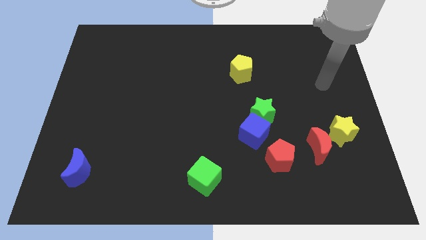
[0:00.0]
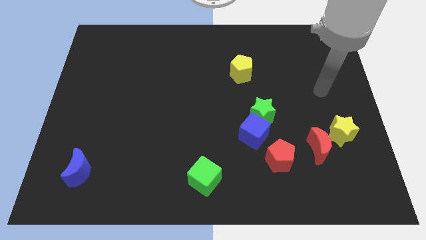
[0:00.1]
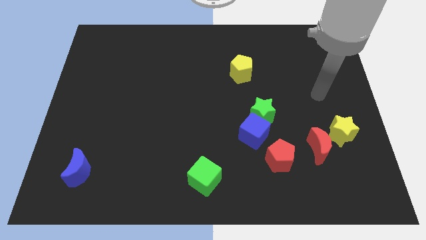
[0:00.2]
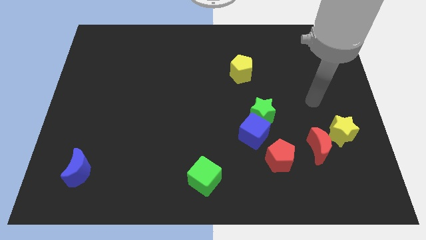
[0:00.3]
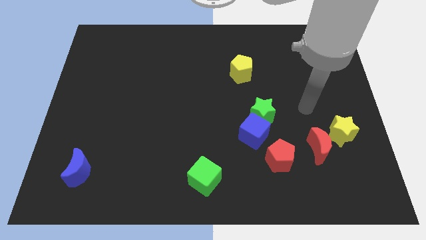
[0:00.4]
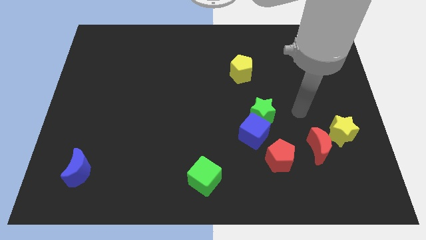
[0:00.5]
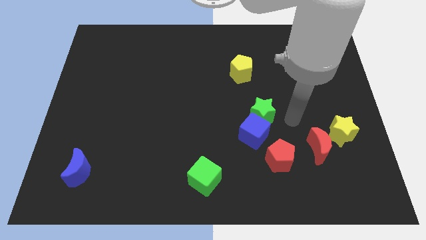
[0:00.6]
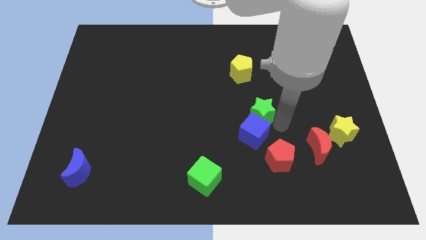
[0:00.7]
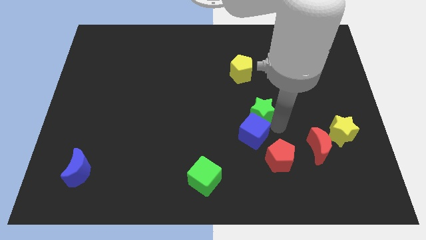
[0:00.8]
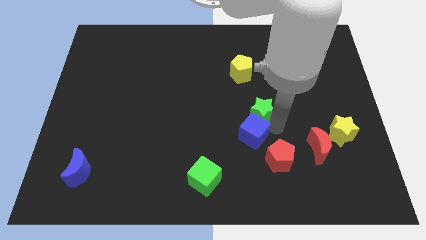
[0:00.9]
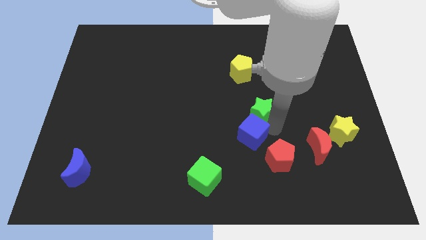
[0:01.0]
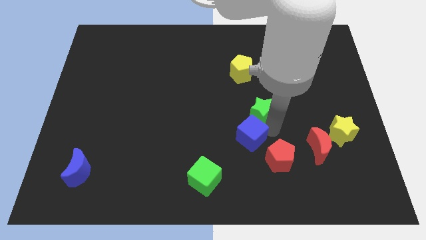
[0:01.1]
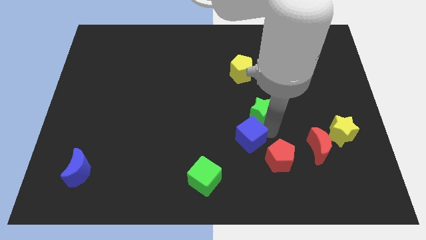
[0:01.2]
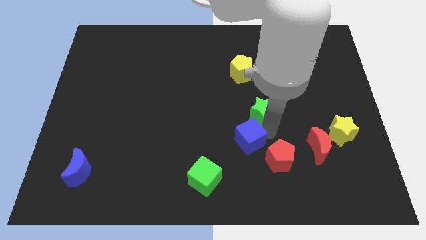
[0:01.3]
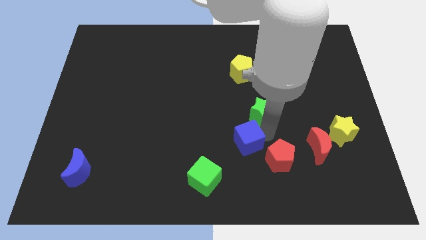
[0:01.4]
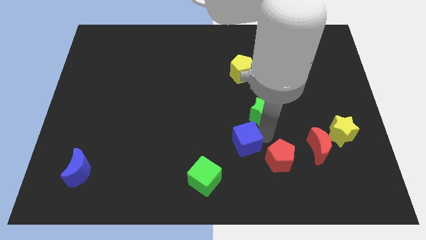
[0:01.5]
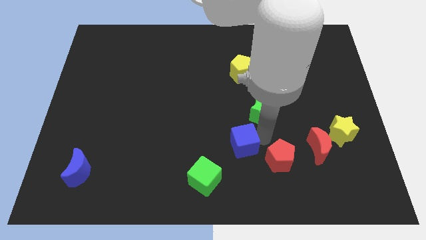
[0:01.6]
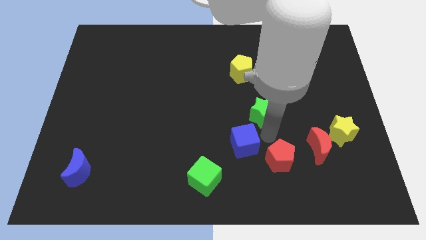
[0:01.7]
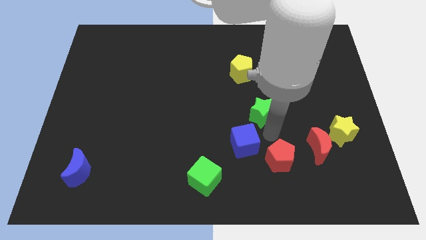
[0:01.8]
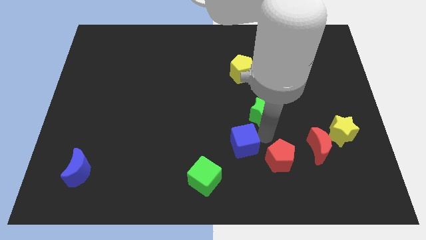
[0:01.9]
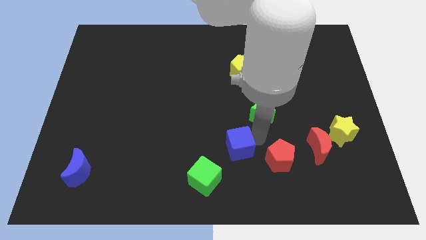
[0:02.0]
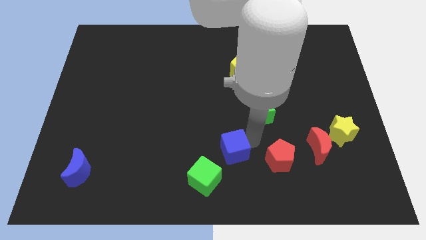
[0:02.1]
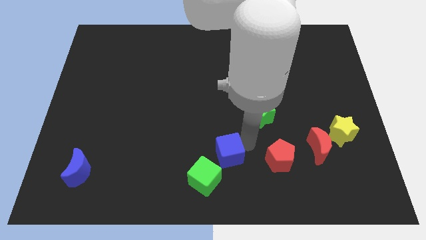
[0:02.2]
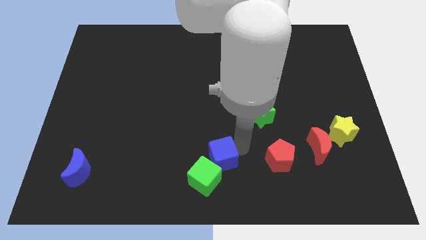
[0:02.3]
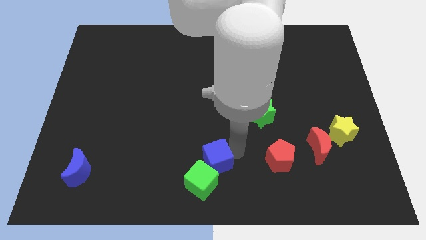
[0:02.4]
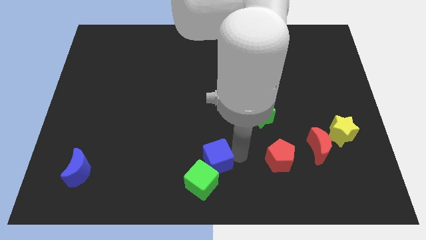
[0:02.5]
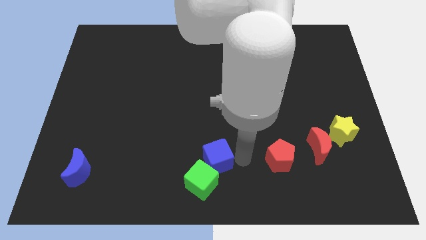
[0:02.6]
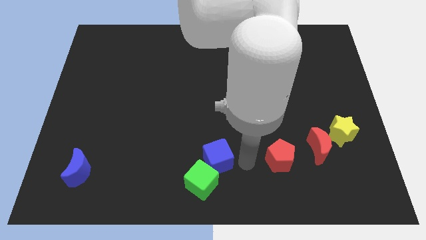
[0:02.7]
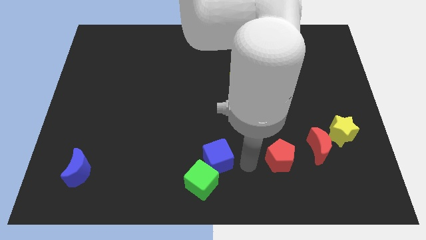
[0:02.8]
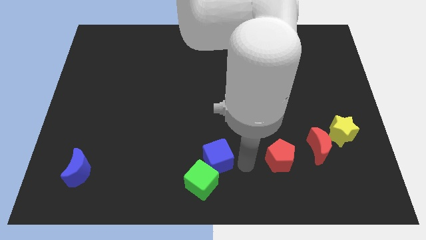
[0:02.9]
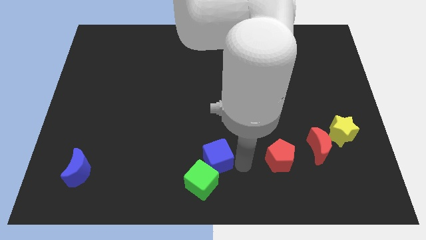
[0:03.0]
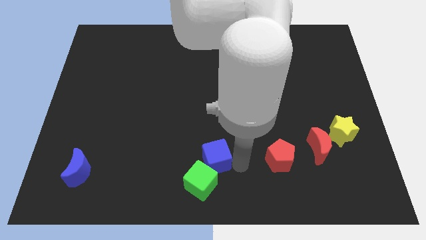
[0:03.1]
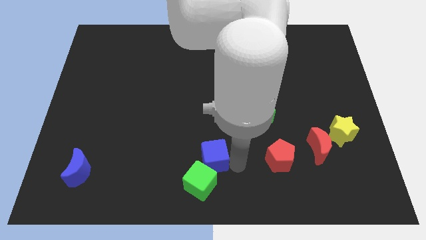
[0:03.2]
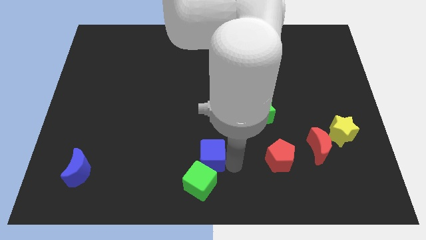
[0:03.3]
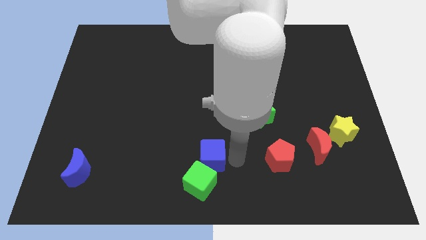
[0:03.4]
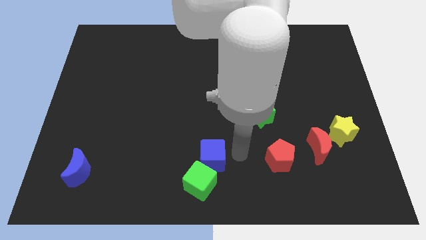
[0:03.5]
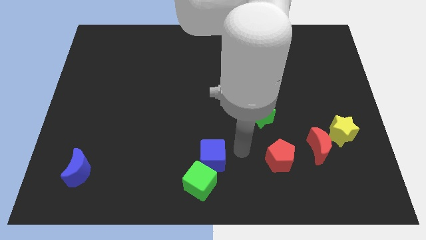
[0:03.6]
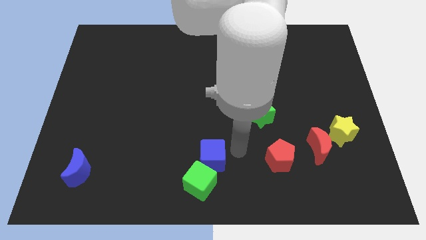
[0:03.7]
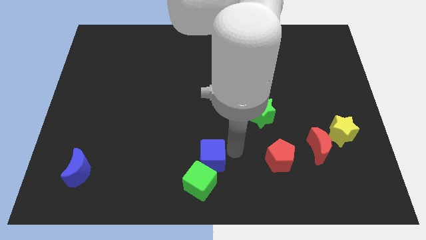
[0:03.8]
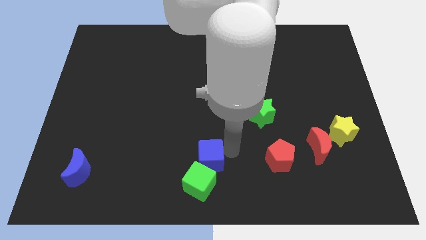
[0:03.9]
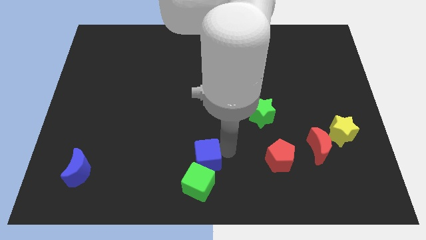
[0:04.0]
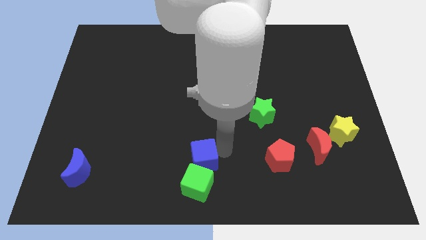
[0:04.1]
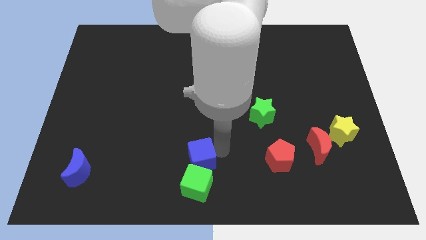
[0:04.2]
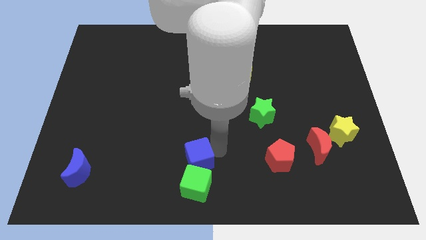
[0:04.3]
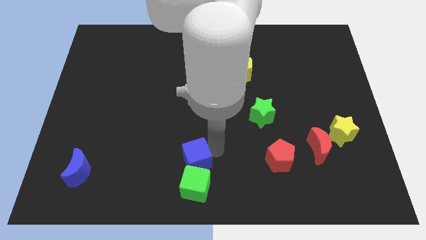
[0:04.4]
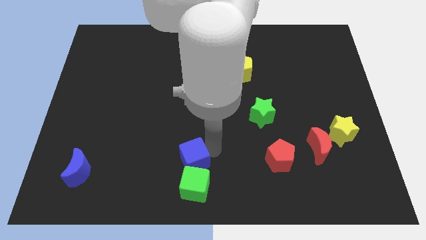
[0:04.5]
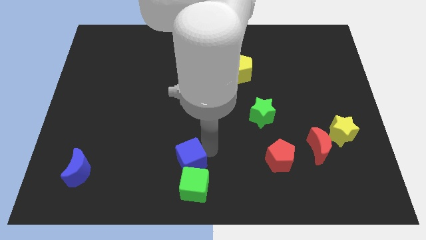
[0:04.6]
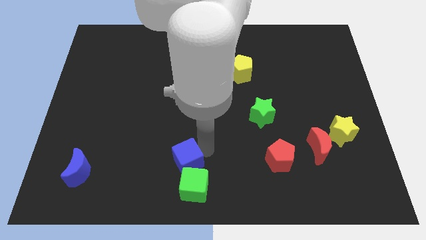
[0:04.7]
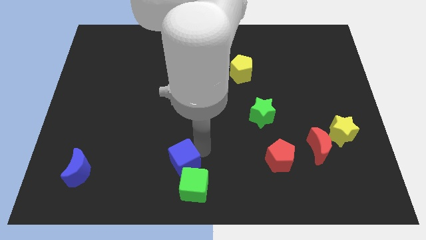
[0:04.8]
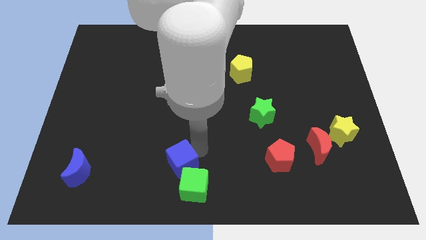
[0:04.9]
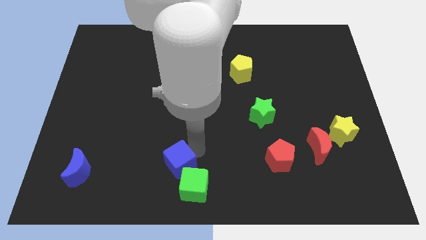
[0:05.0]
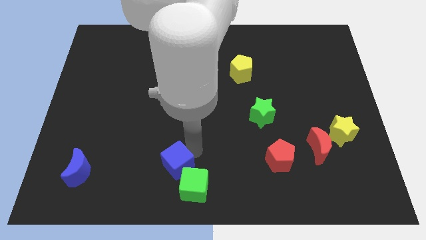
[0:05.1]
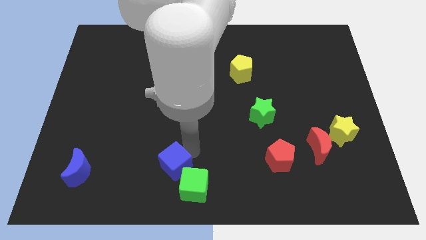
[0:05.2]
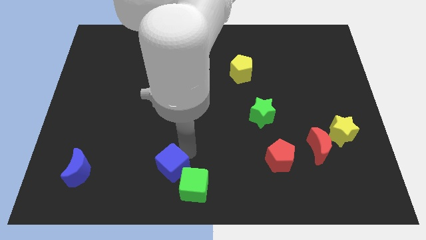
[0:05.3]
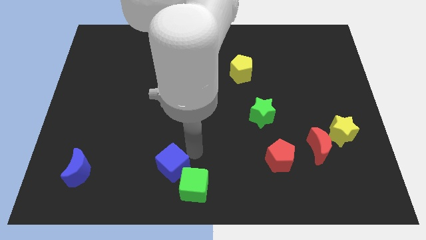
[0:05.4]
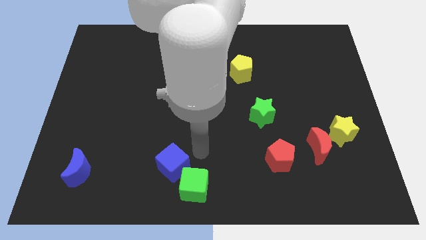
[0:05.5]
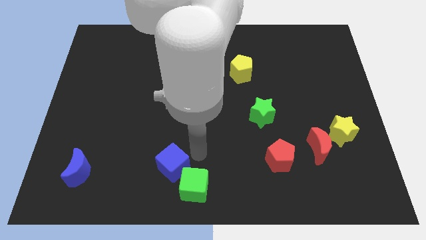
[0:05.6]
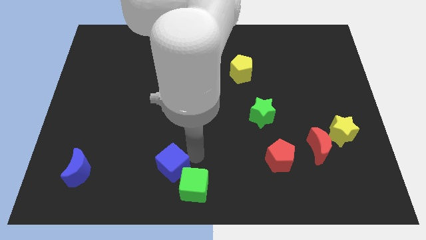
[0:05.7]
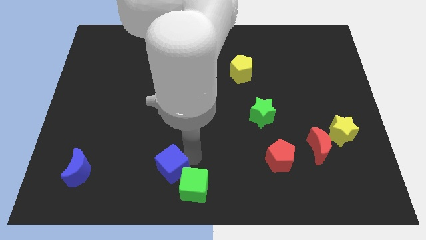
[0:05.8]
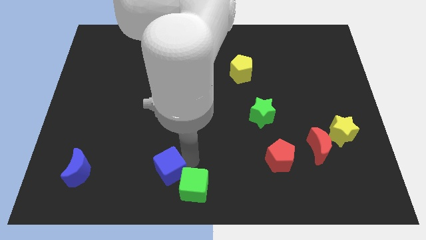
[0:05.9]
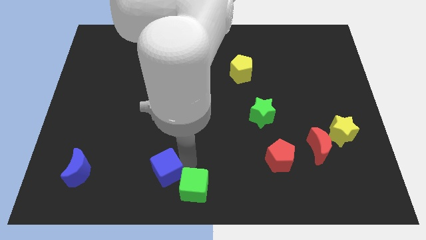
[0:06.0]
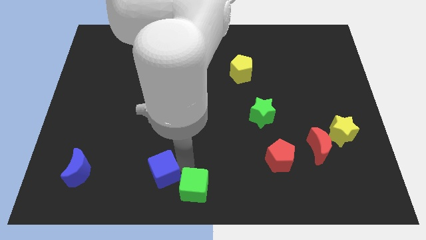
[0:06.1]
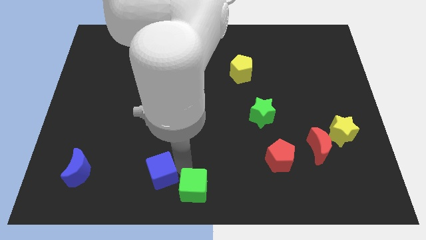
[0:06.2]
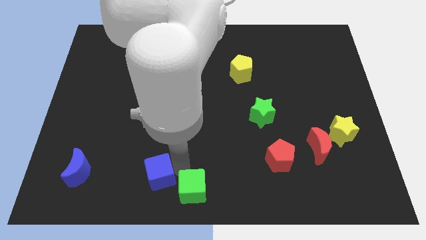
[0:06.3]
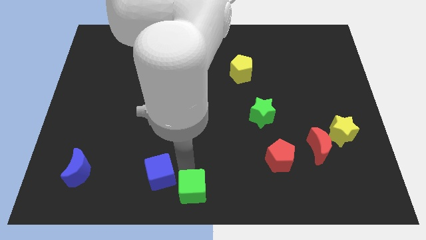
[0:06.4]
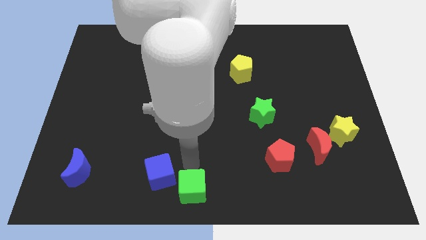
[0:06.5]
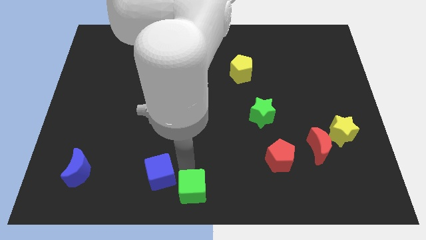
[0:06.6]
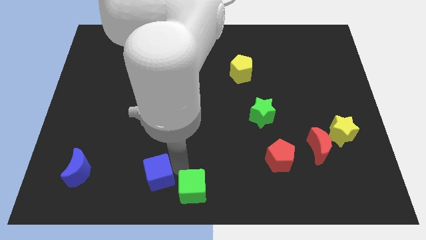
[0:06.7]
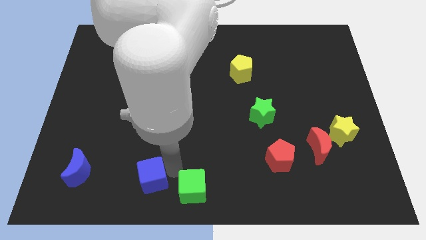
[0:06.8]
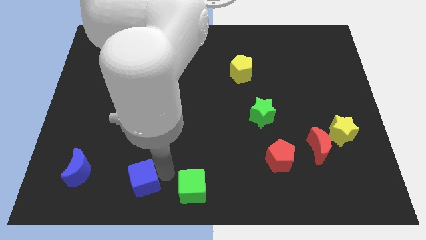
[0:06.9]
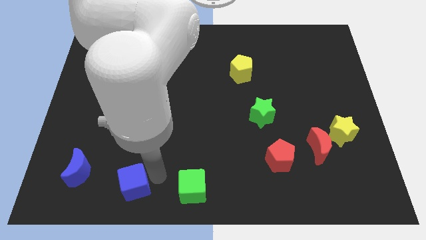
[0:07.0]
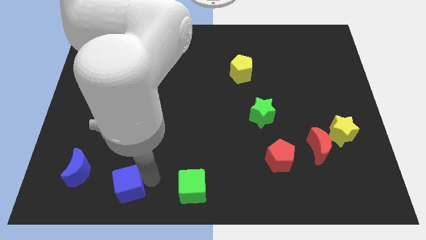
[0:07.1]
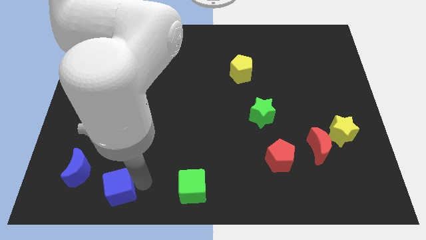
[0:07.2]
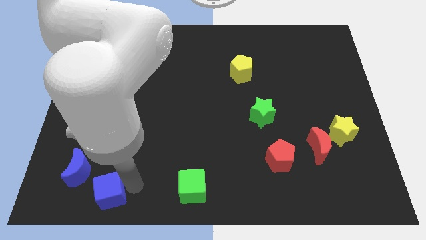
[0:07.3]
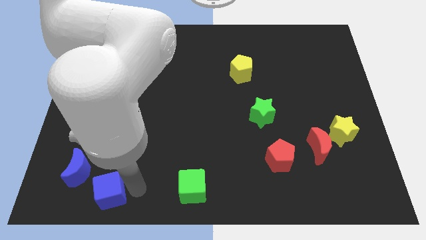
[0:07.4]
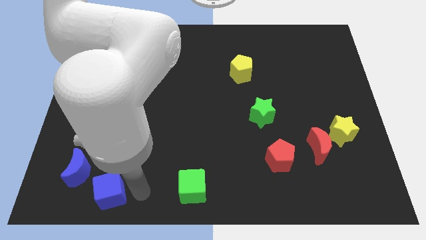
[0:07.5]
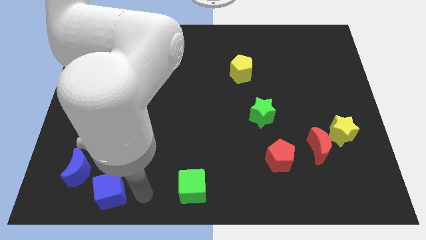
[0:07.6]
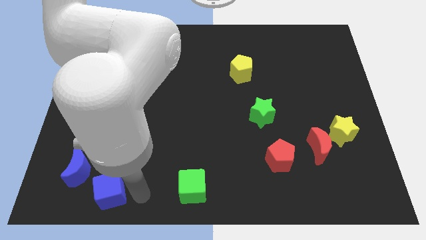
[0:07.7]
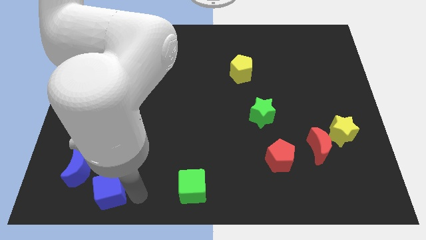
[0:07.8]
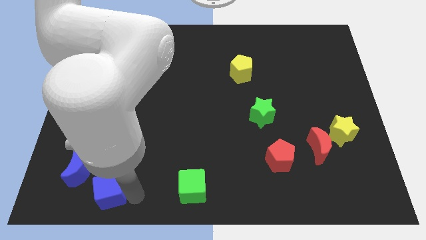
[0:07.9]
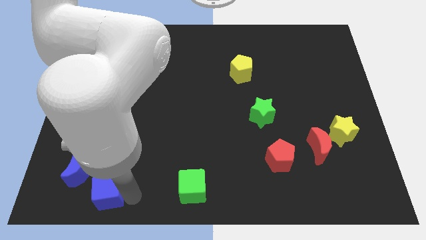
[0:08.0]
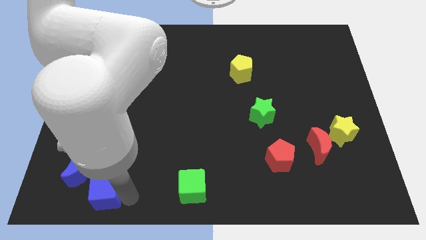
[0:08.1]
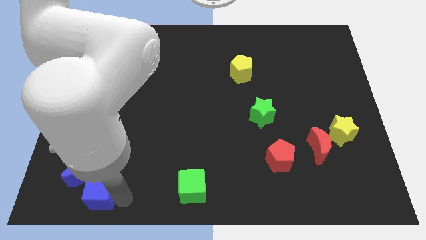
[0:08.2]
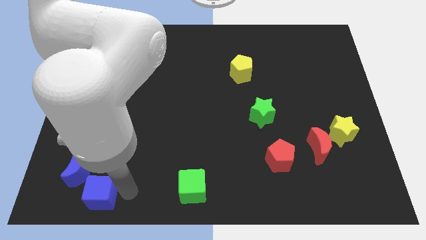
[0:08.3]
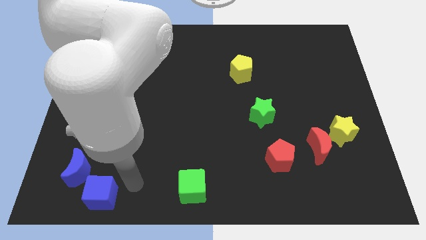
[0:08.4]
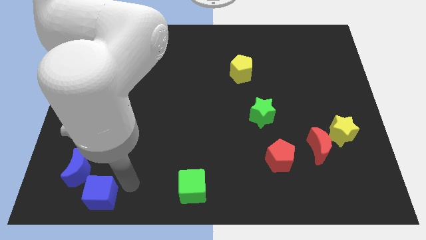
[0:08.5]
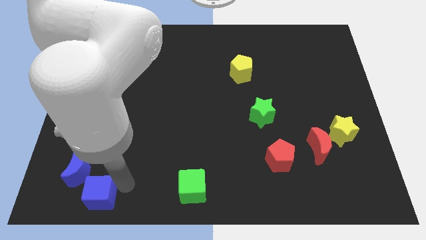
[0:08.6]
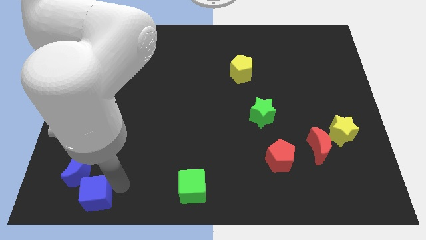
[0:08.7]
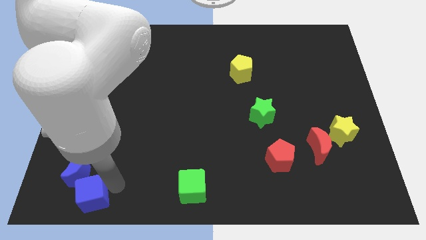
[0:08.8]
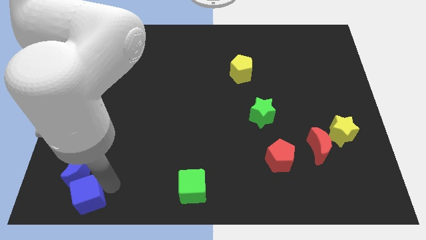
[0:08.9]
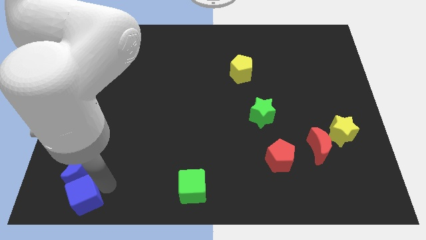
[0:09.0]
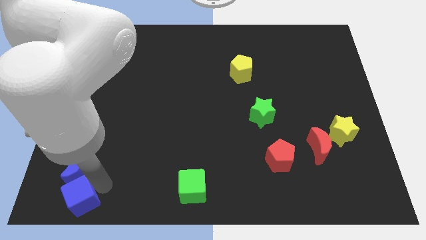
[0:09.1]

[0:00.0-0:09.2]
push the blue cube to the bottom left
